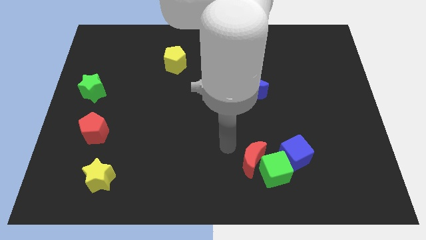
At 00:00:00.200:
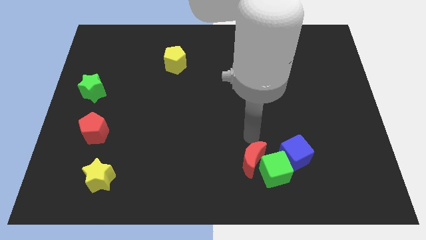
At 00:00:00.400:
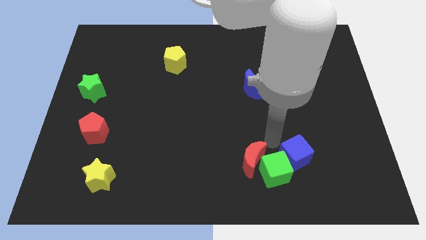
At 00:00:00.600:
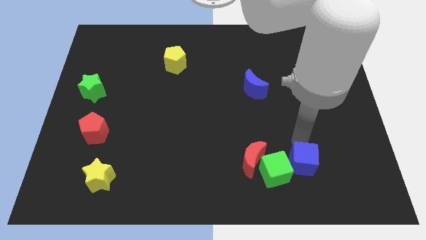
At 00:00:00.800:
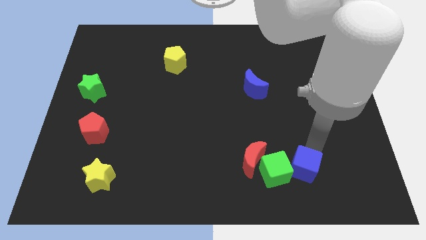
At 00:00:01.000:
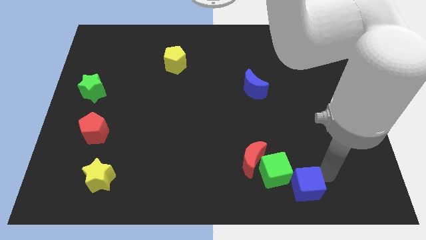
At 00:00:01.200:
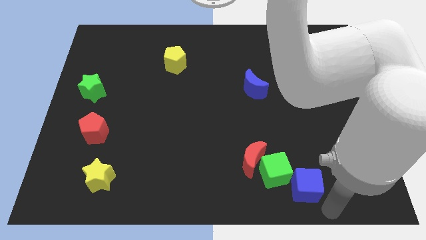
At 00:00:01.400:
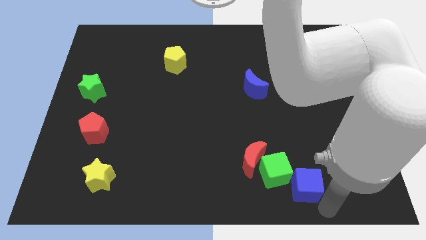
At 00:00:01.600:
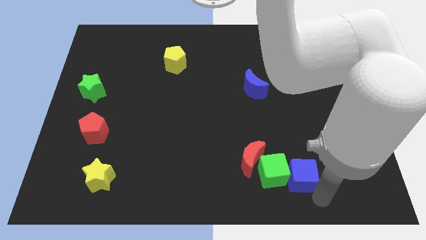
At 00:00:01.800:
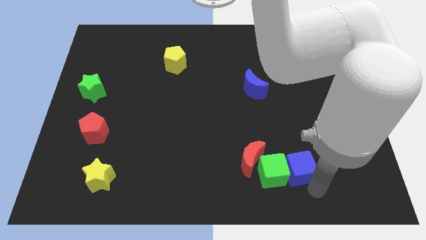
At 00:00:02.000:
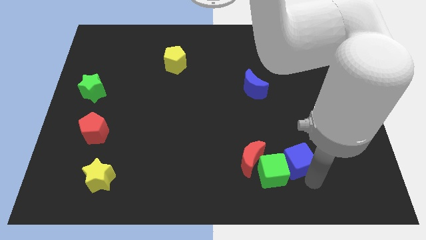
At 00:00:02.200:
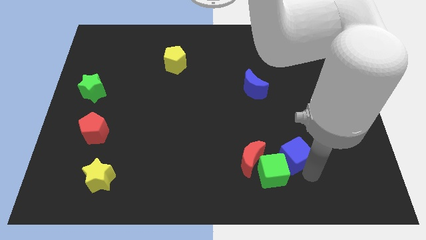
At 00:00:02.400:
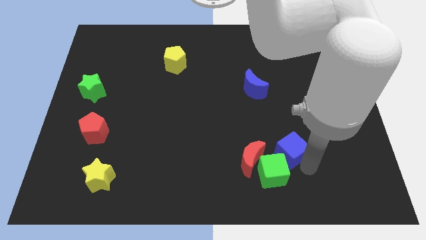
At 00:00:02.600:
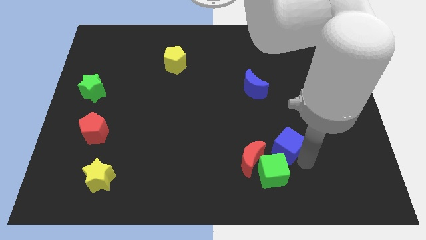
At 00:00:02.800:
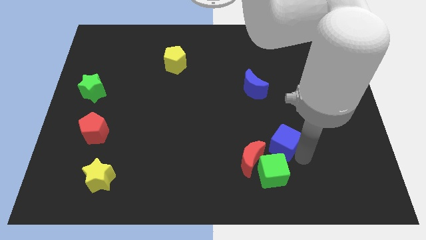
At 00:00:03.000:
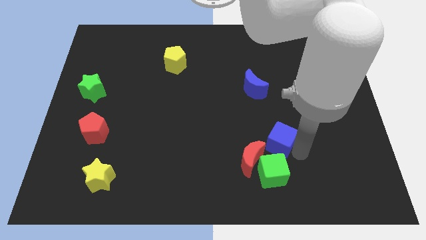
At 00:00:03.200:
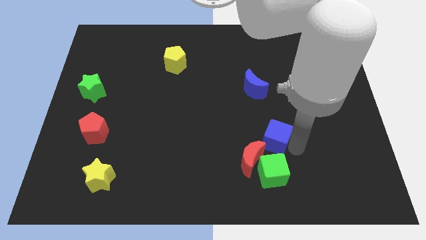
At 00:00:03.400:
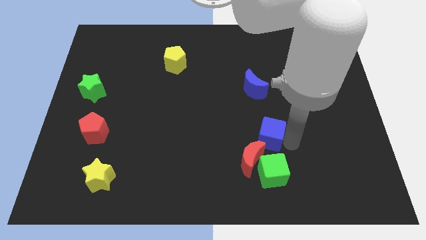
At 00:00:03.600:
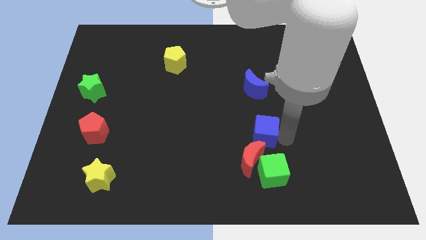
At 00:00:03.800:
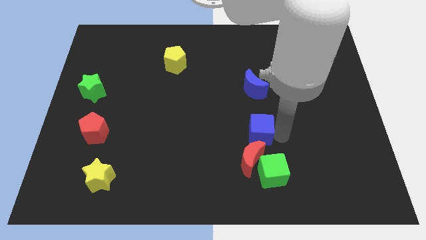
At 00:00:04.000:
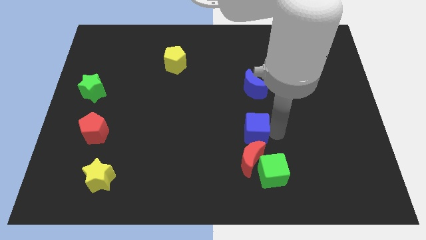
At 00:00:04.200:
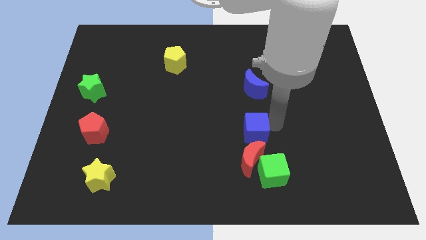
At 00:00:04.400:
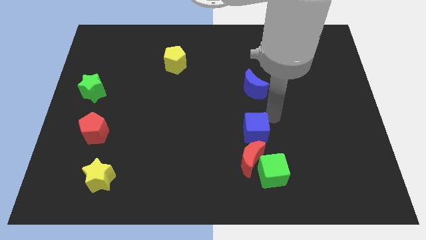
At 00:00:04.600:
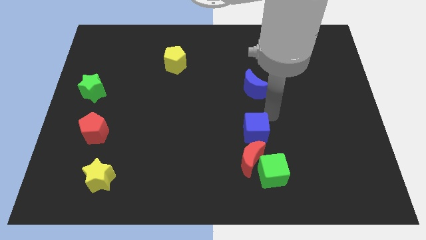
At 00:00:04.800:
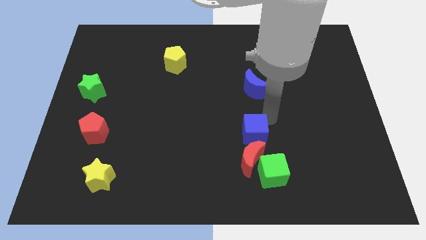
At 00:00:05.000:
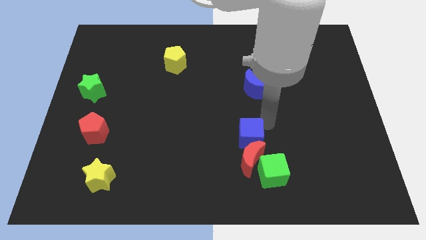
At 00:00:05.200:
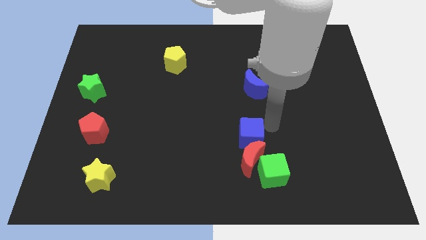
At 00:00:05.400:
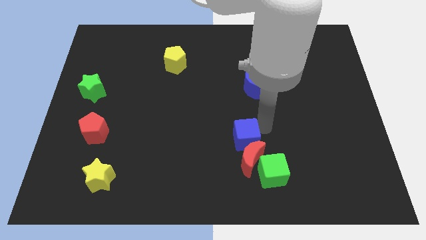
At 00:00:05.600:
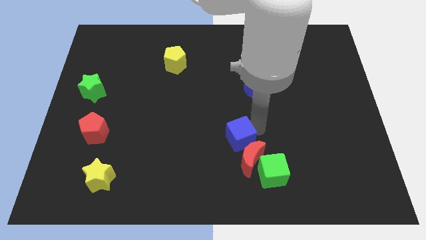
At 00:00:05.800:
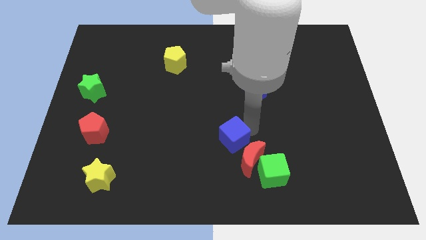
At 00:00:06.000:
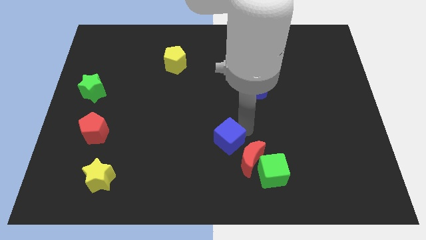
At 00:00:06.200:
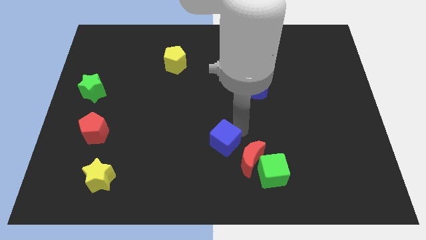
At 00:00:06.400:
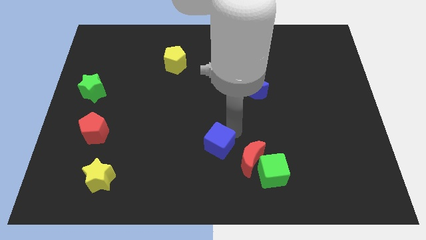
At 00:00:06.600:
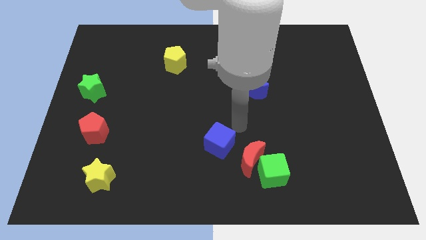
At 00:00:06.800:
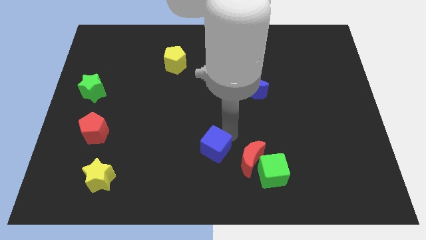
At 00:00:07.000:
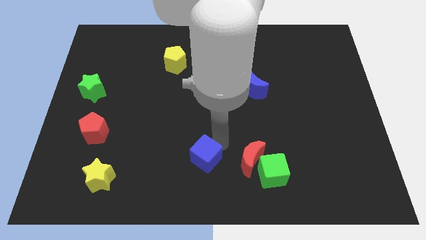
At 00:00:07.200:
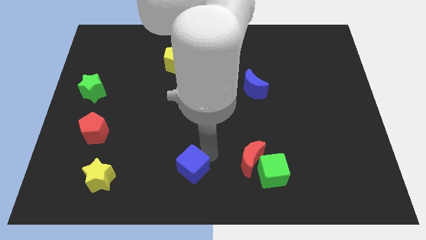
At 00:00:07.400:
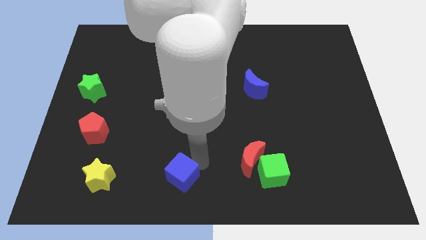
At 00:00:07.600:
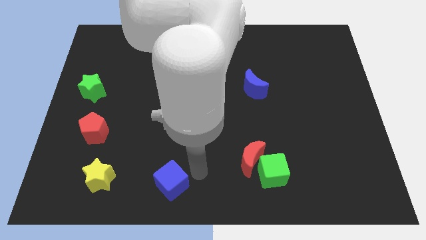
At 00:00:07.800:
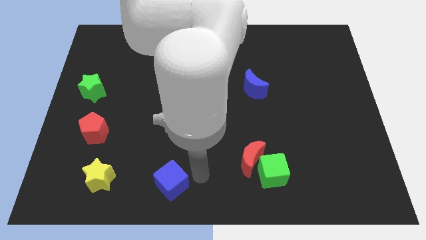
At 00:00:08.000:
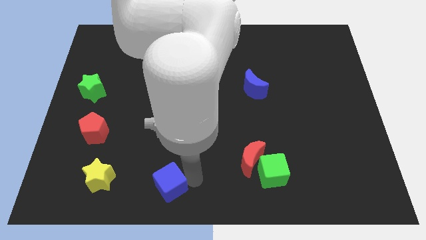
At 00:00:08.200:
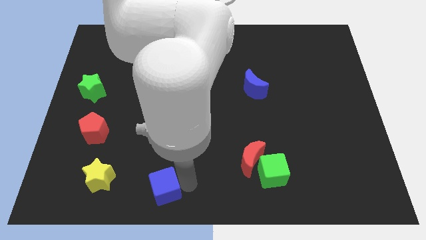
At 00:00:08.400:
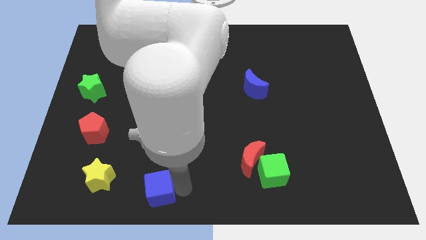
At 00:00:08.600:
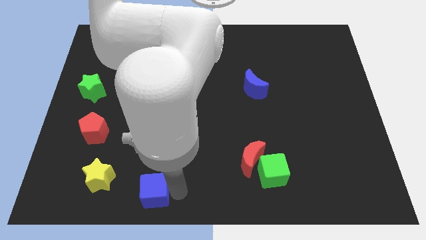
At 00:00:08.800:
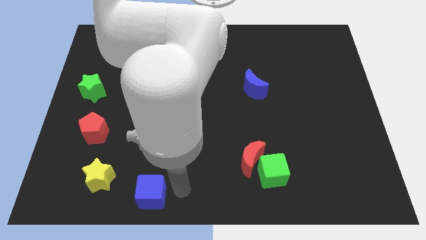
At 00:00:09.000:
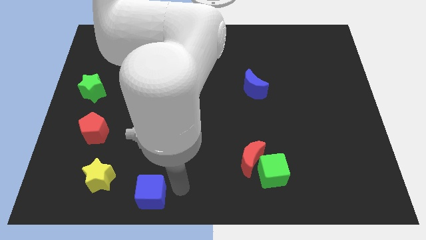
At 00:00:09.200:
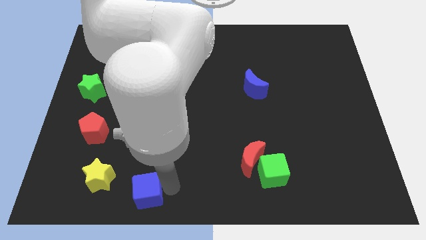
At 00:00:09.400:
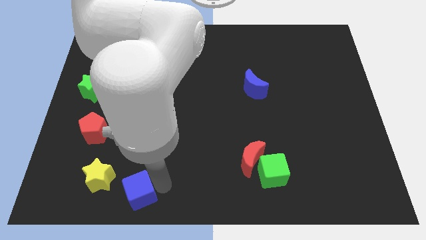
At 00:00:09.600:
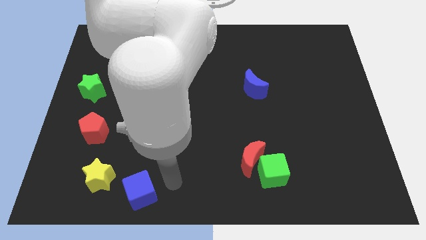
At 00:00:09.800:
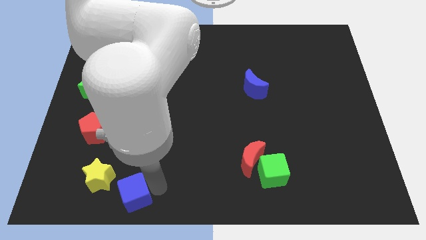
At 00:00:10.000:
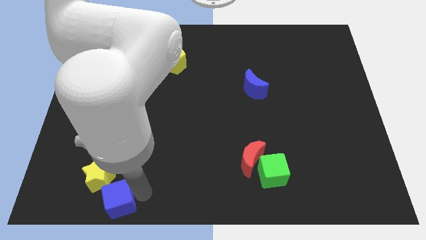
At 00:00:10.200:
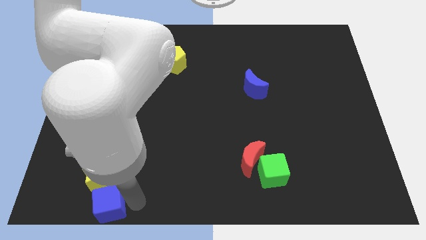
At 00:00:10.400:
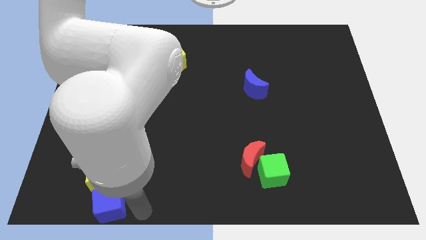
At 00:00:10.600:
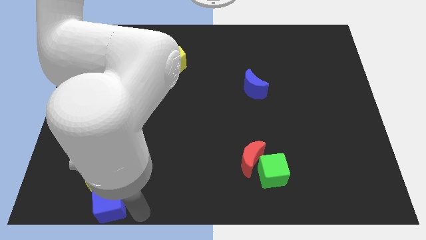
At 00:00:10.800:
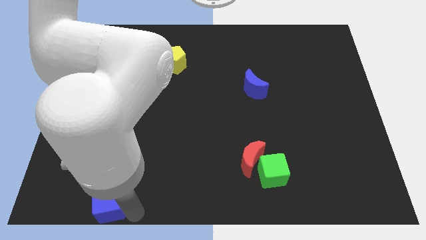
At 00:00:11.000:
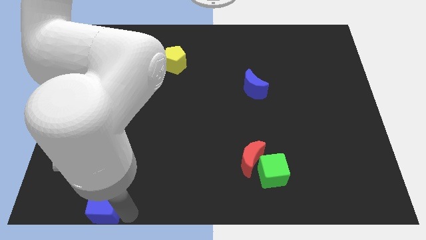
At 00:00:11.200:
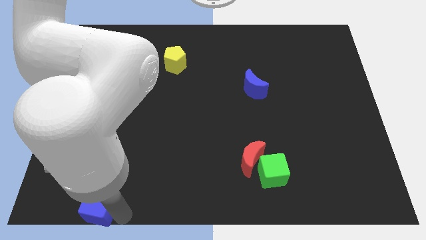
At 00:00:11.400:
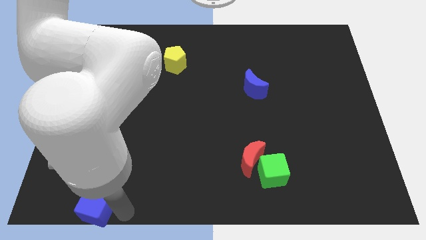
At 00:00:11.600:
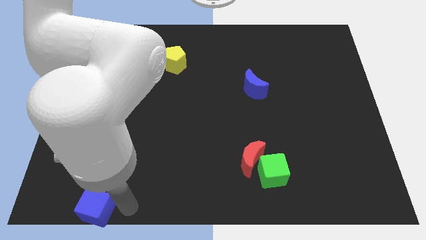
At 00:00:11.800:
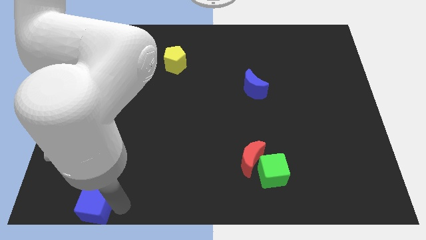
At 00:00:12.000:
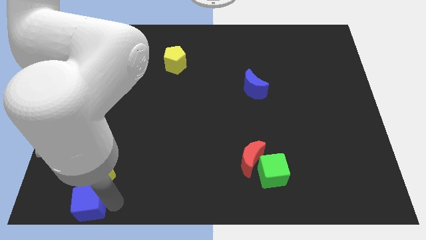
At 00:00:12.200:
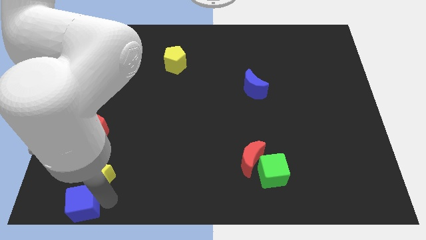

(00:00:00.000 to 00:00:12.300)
move the blue cube to the bottom left corner
